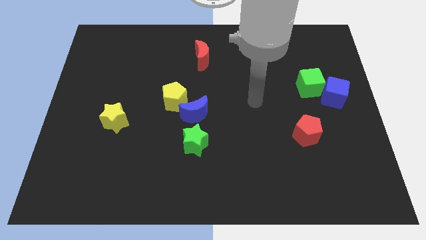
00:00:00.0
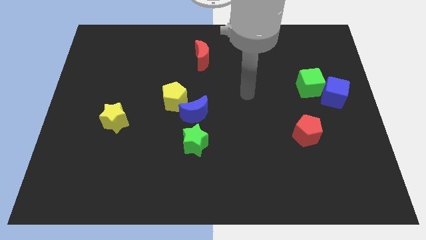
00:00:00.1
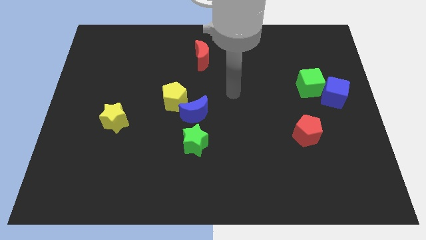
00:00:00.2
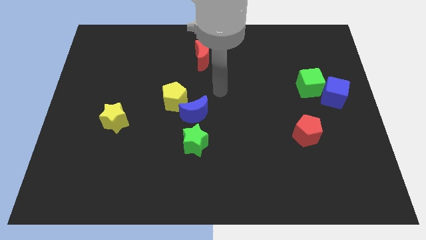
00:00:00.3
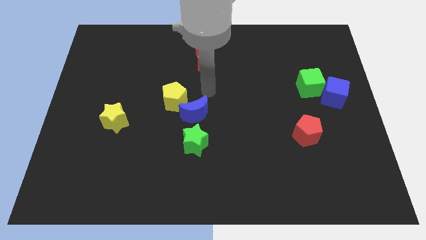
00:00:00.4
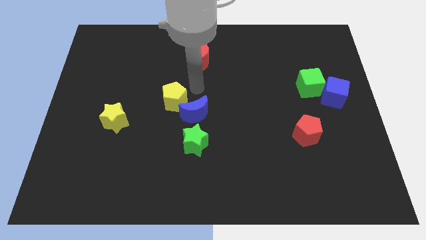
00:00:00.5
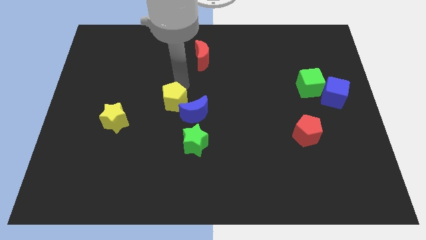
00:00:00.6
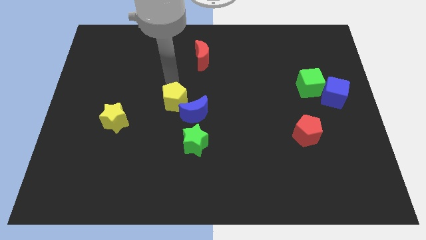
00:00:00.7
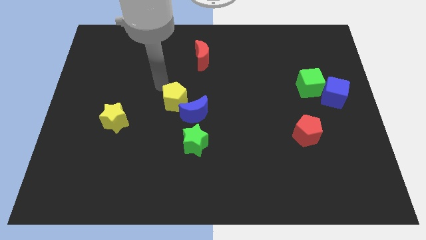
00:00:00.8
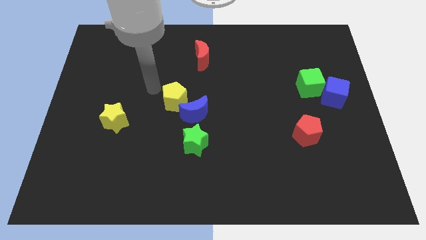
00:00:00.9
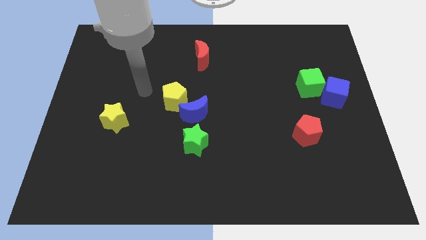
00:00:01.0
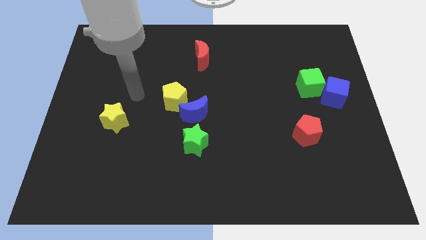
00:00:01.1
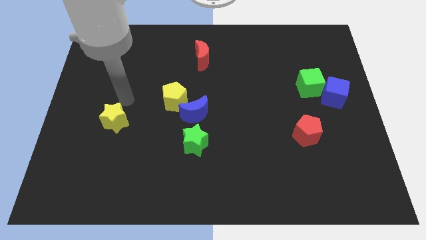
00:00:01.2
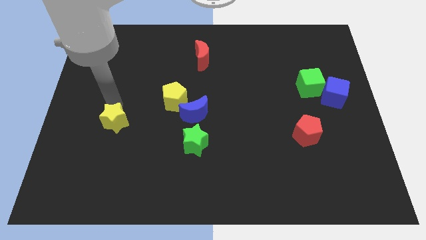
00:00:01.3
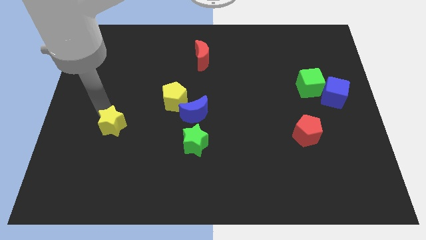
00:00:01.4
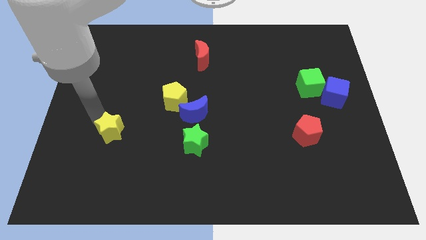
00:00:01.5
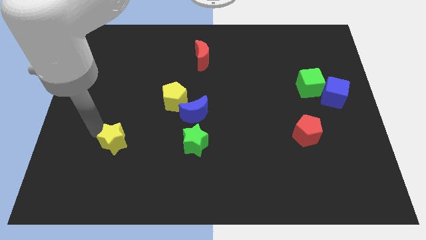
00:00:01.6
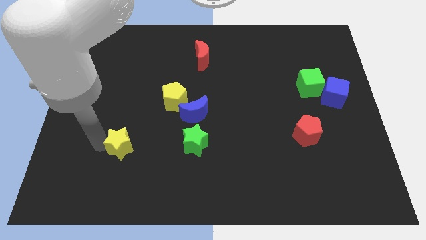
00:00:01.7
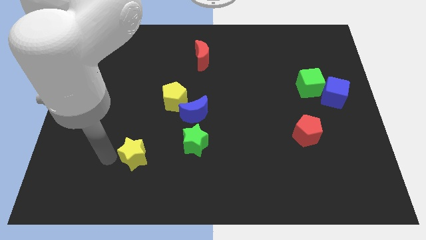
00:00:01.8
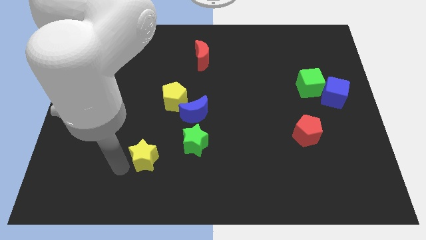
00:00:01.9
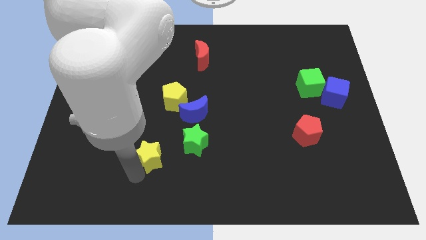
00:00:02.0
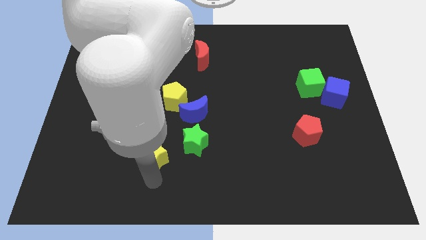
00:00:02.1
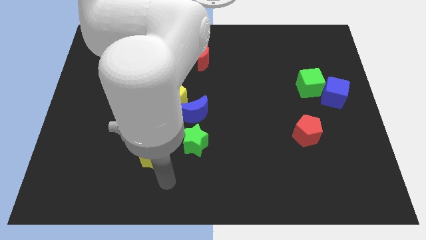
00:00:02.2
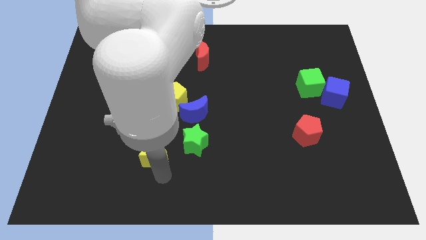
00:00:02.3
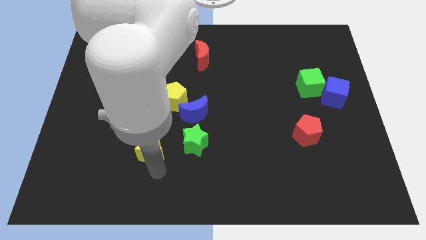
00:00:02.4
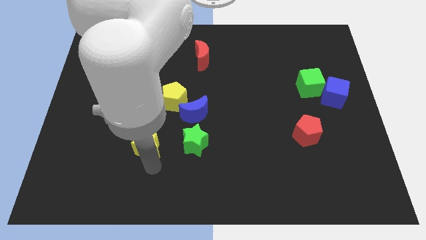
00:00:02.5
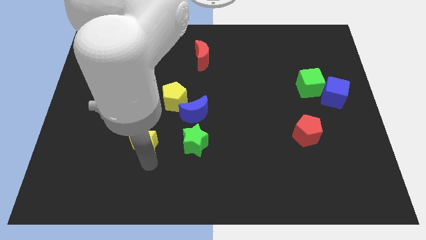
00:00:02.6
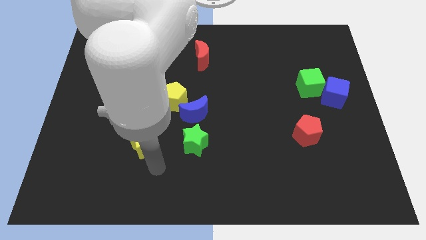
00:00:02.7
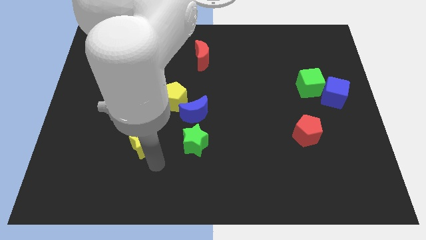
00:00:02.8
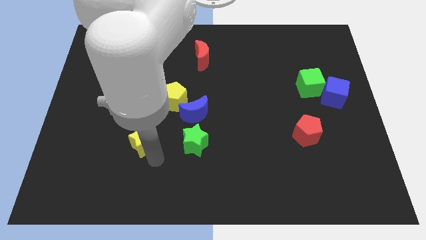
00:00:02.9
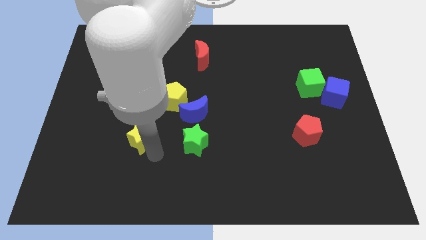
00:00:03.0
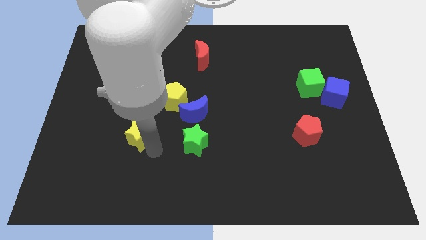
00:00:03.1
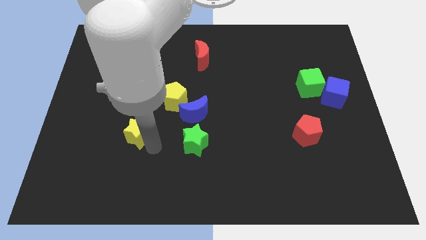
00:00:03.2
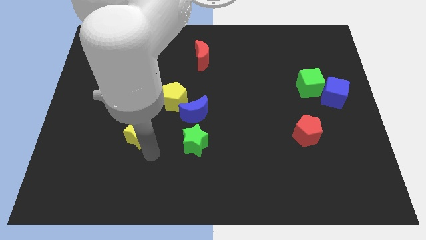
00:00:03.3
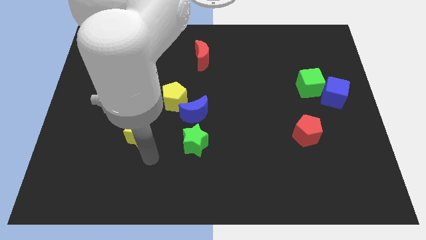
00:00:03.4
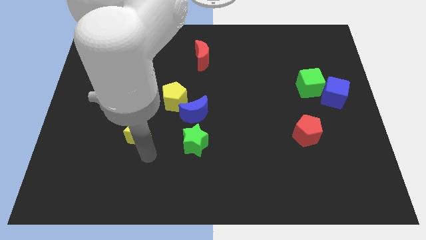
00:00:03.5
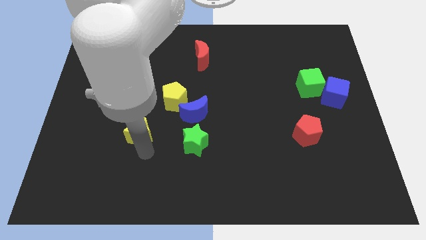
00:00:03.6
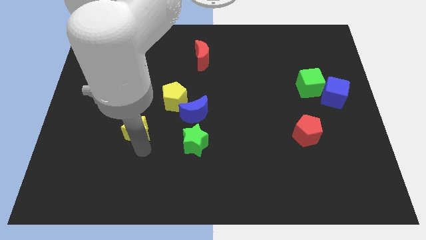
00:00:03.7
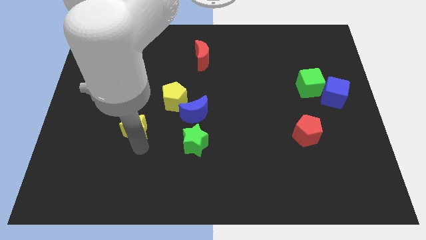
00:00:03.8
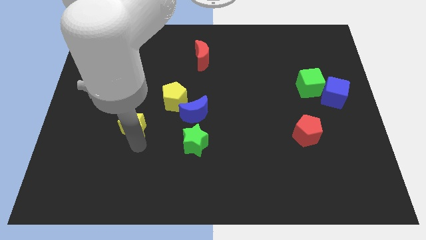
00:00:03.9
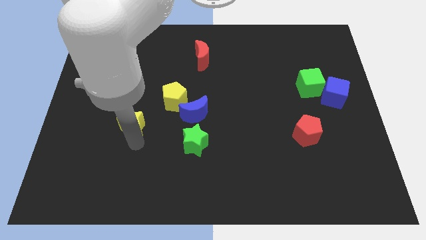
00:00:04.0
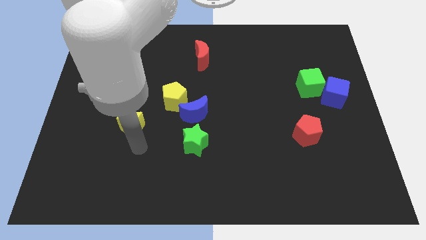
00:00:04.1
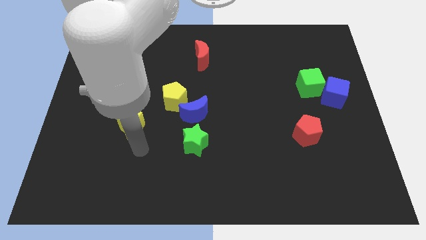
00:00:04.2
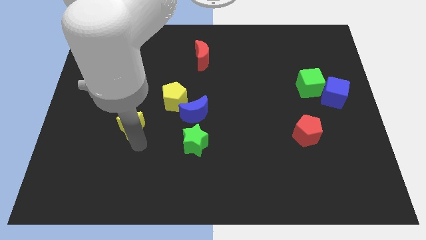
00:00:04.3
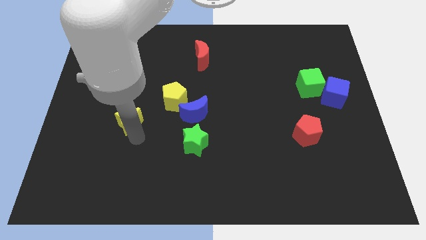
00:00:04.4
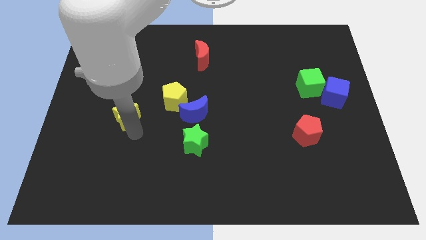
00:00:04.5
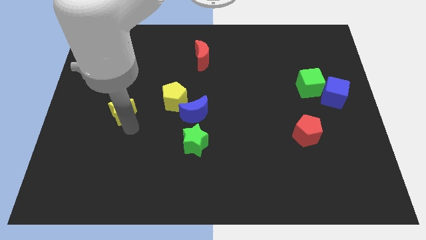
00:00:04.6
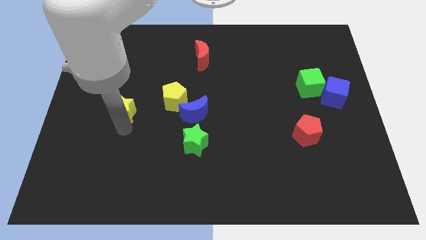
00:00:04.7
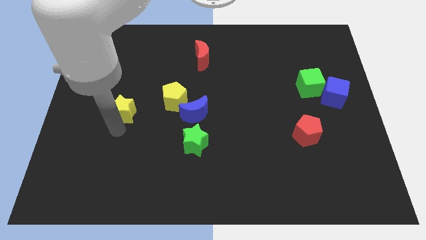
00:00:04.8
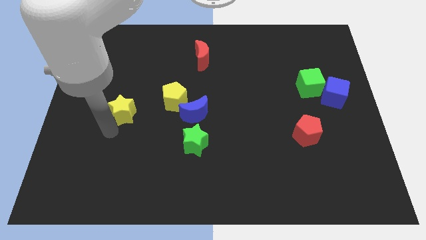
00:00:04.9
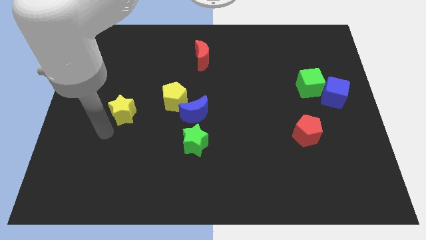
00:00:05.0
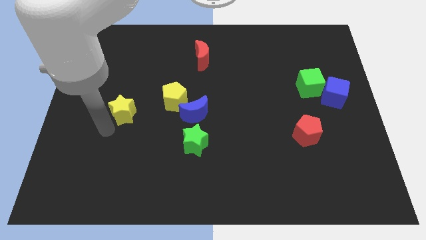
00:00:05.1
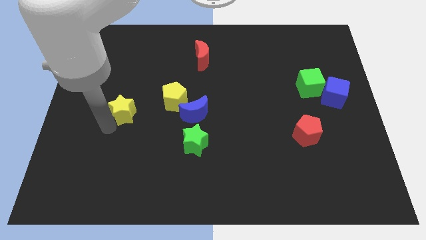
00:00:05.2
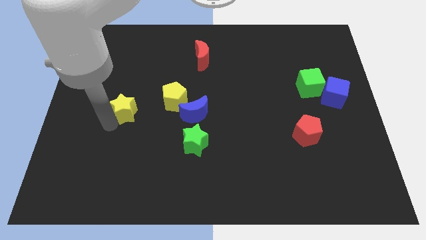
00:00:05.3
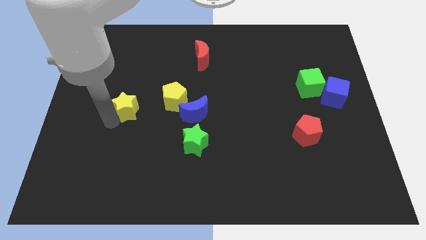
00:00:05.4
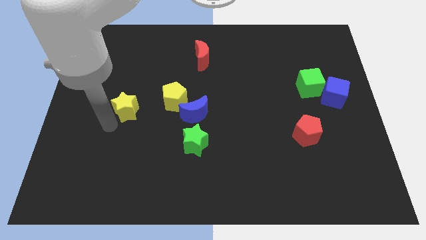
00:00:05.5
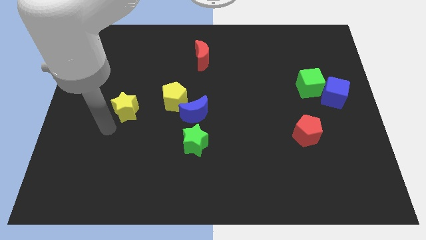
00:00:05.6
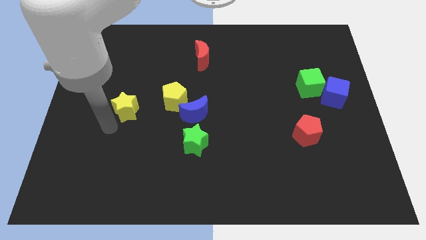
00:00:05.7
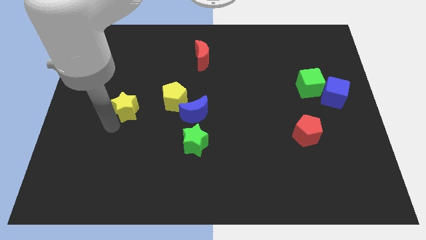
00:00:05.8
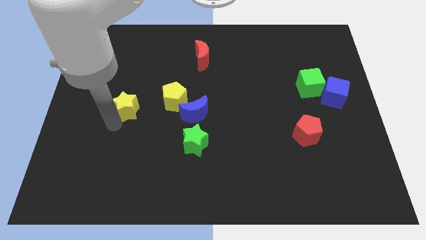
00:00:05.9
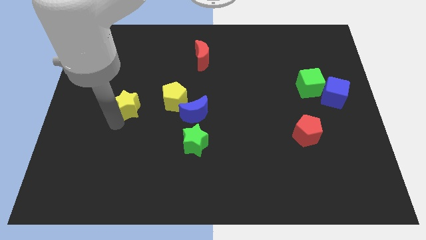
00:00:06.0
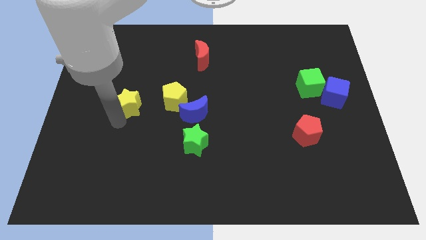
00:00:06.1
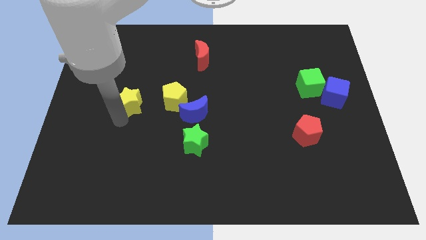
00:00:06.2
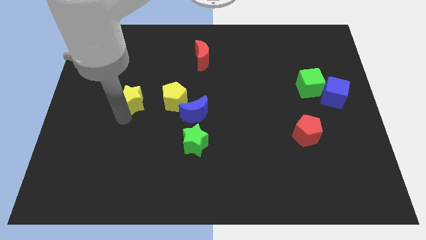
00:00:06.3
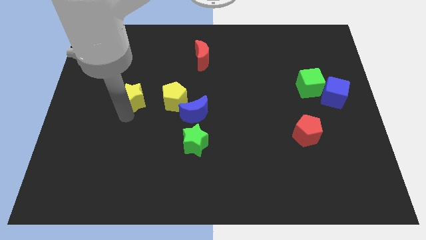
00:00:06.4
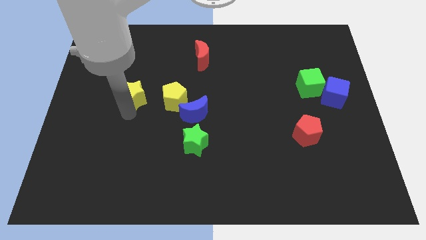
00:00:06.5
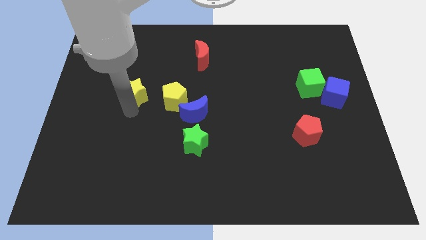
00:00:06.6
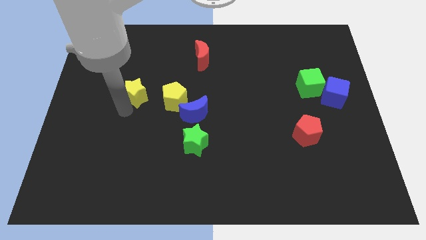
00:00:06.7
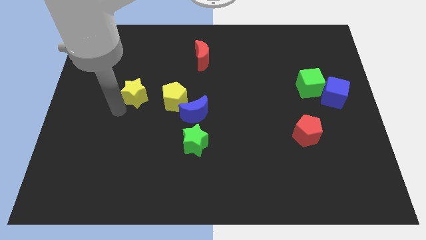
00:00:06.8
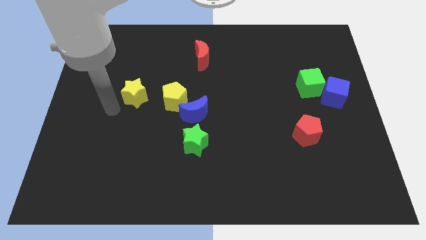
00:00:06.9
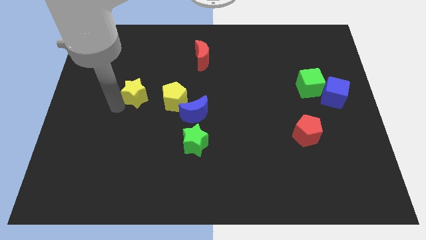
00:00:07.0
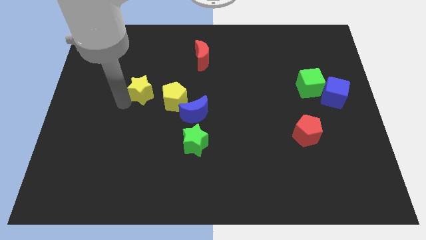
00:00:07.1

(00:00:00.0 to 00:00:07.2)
put the yellow star to the top left side of the yellow pentagon
